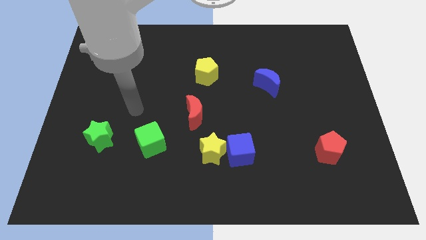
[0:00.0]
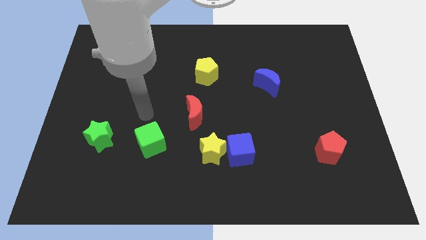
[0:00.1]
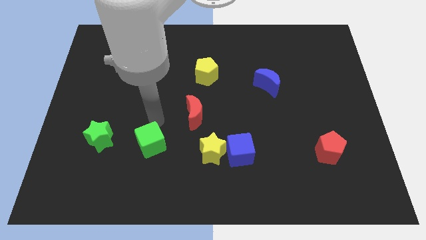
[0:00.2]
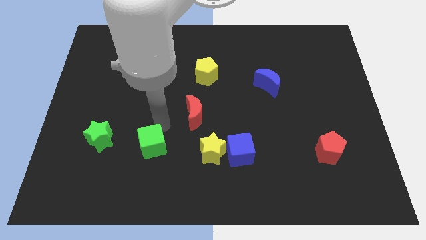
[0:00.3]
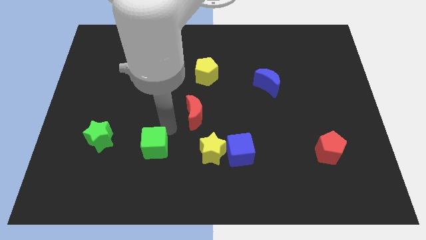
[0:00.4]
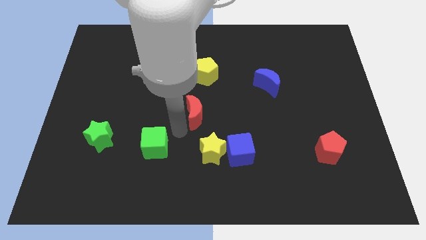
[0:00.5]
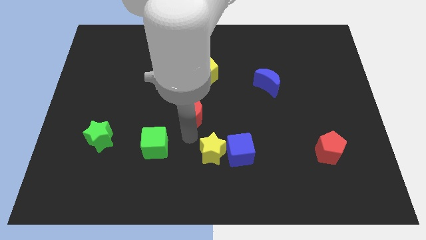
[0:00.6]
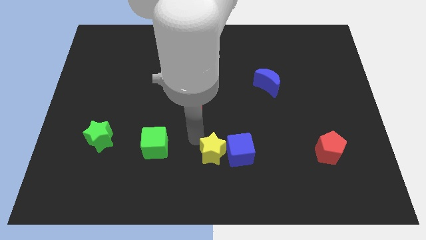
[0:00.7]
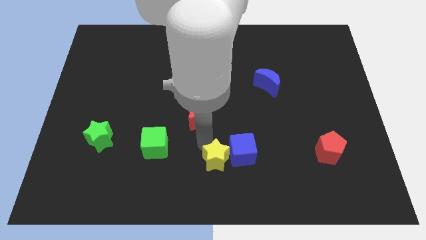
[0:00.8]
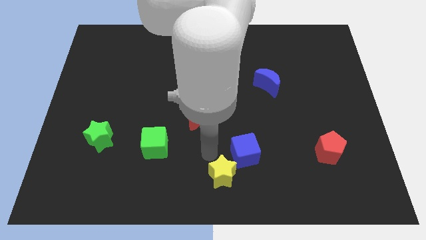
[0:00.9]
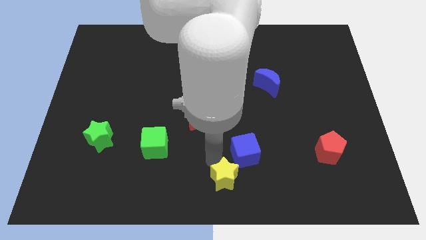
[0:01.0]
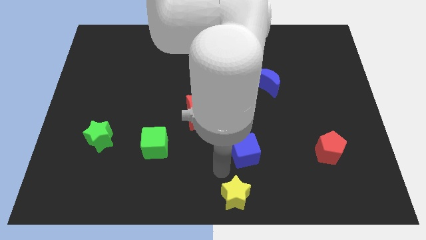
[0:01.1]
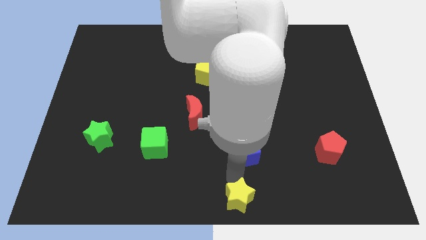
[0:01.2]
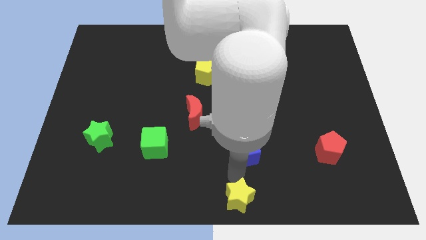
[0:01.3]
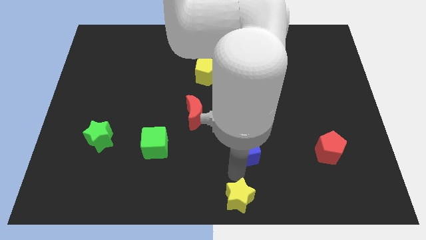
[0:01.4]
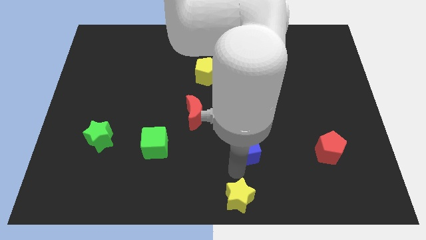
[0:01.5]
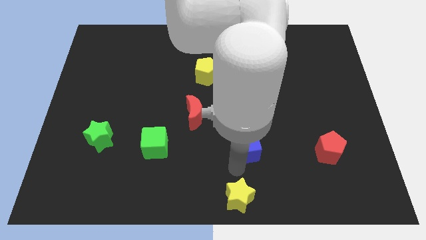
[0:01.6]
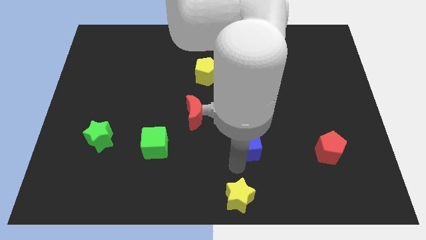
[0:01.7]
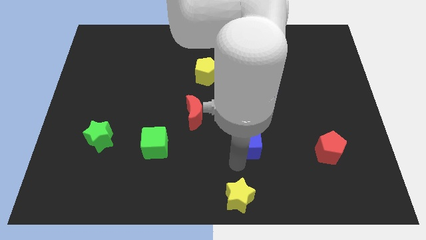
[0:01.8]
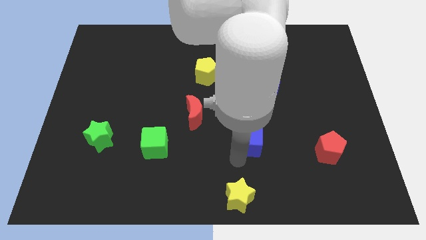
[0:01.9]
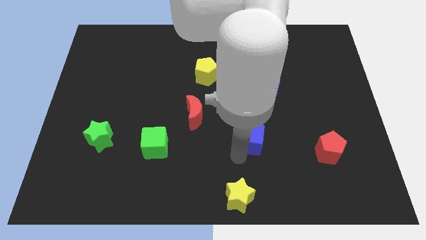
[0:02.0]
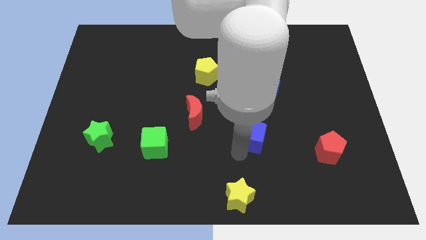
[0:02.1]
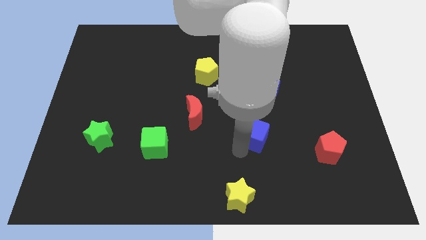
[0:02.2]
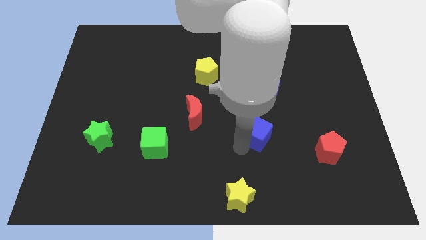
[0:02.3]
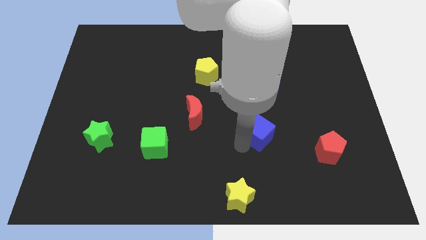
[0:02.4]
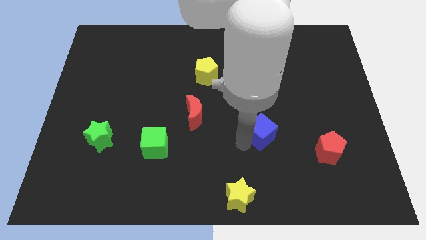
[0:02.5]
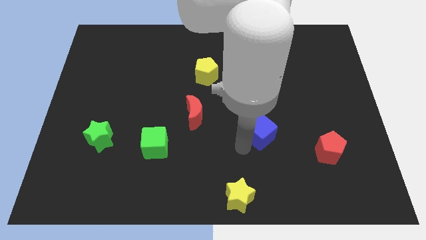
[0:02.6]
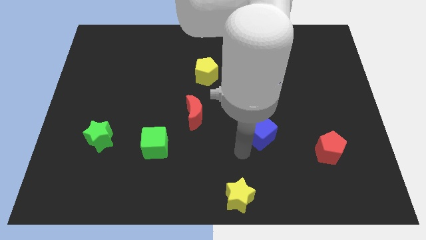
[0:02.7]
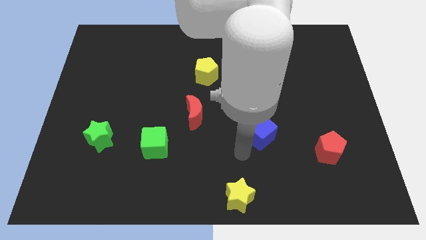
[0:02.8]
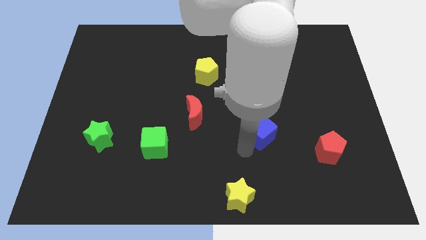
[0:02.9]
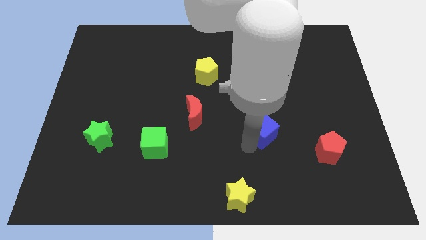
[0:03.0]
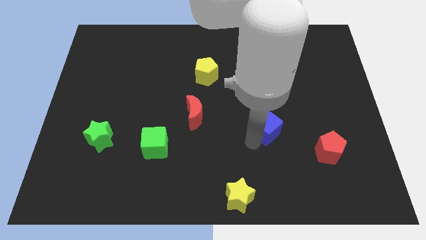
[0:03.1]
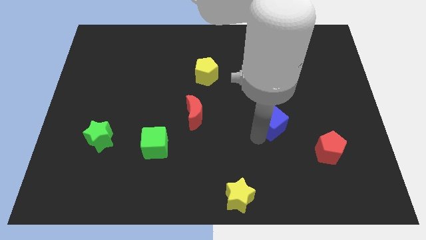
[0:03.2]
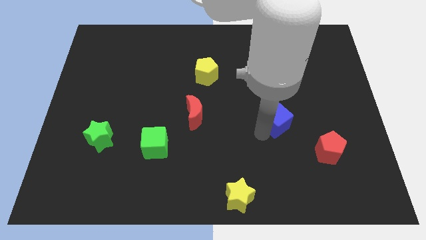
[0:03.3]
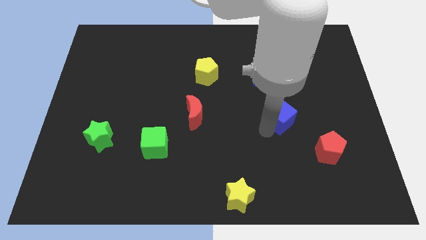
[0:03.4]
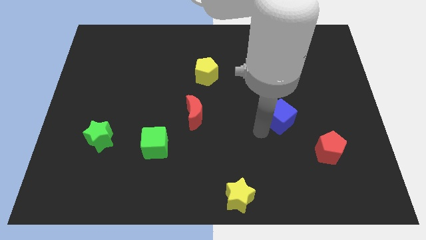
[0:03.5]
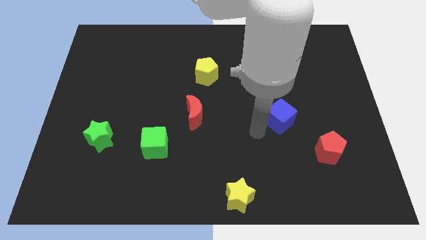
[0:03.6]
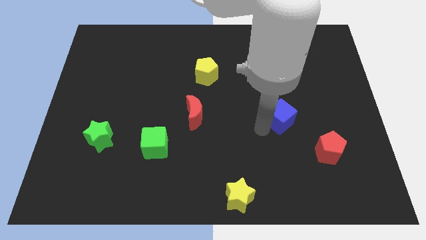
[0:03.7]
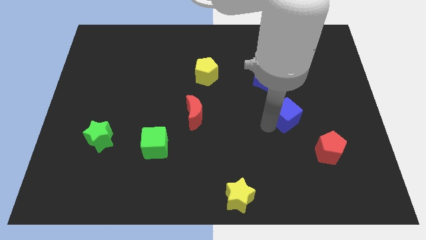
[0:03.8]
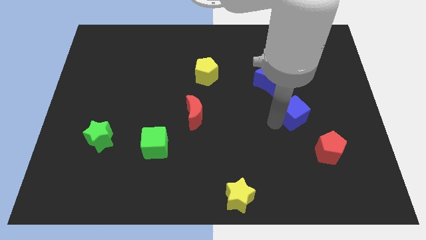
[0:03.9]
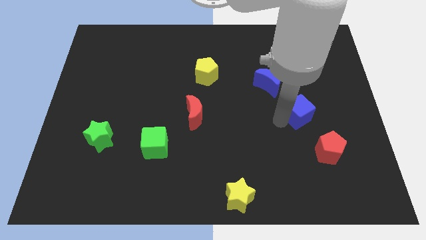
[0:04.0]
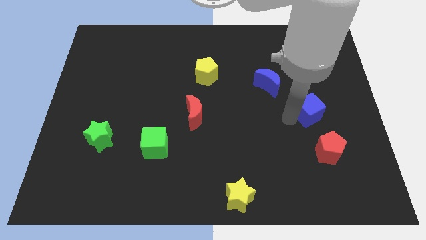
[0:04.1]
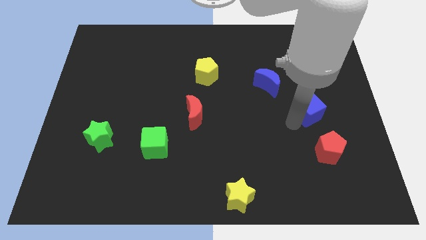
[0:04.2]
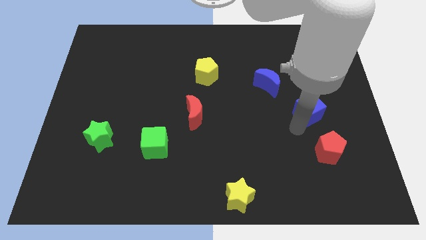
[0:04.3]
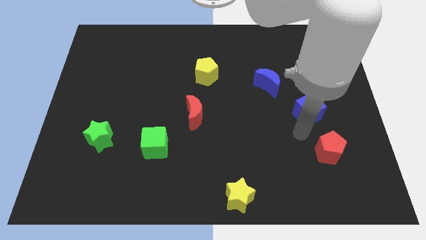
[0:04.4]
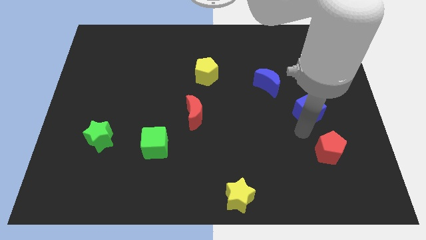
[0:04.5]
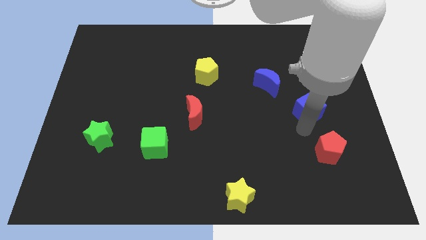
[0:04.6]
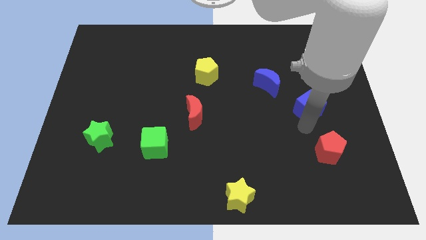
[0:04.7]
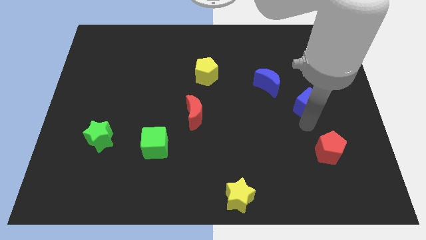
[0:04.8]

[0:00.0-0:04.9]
push the blue cube diagonally upwards and right

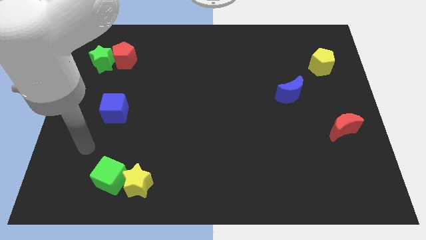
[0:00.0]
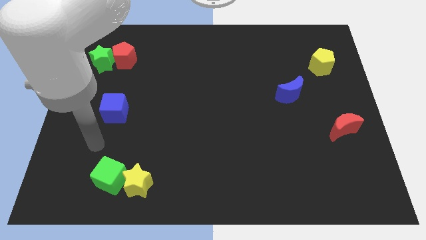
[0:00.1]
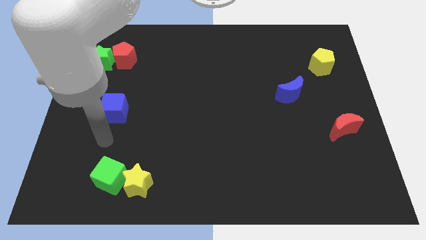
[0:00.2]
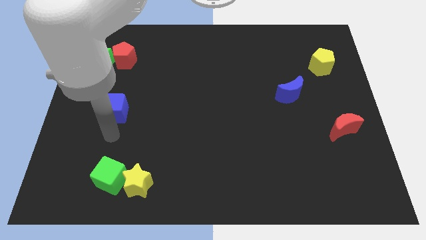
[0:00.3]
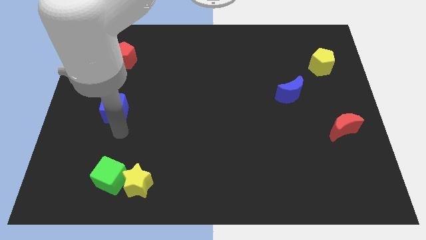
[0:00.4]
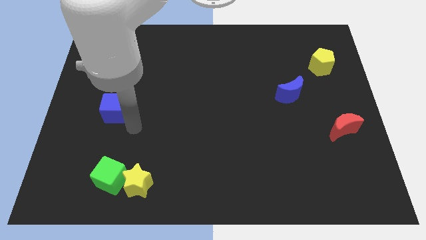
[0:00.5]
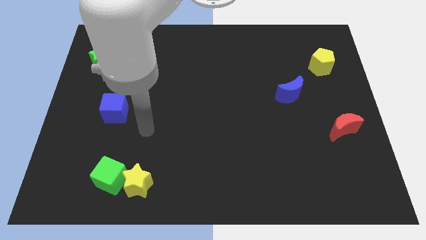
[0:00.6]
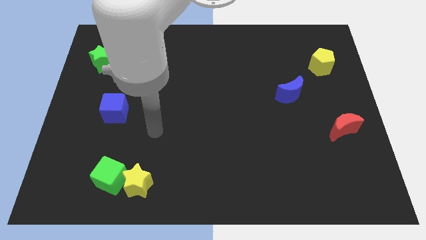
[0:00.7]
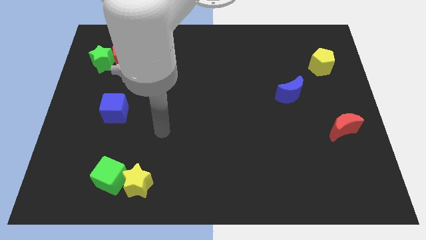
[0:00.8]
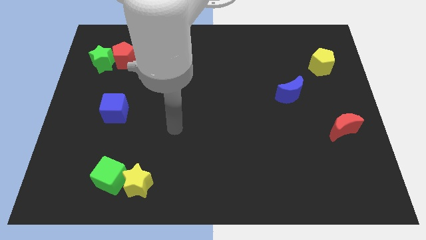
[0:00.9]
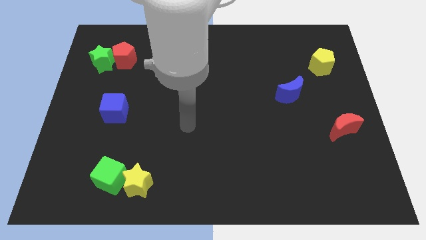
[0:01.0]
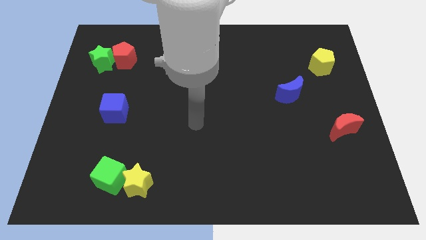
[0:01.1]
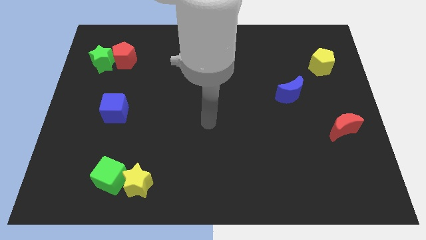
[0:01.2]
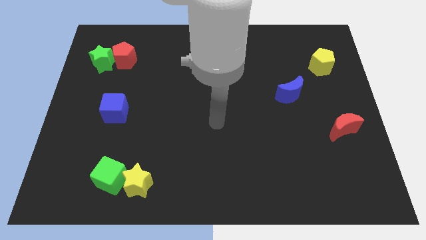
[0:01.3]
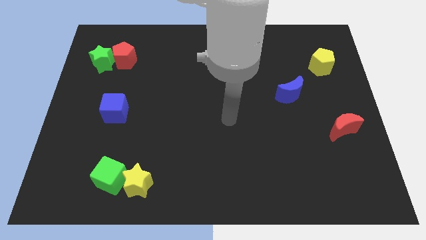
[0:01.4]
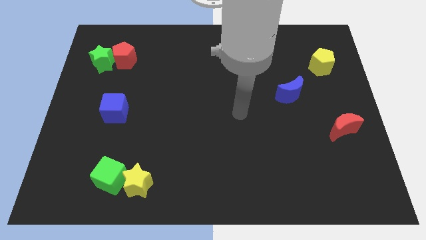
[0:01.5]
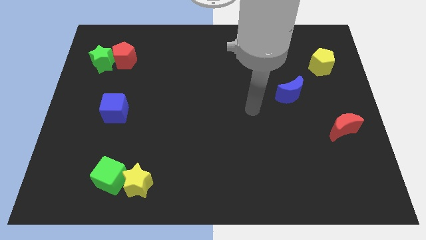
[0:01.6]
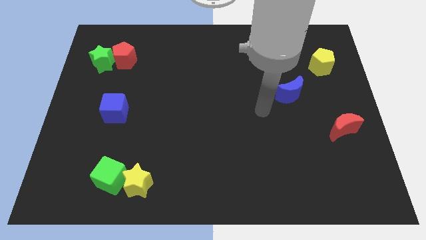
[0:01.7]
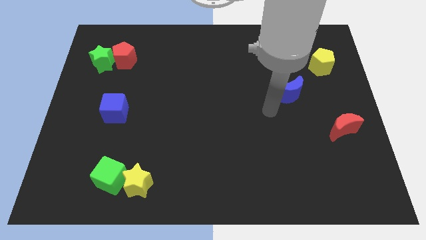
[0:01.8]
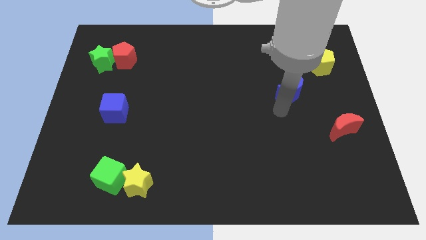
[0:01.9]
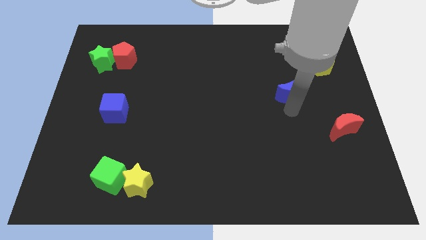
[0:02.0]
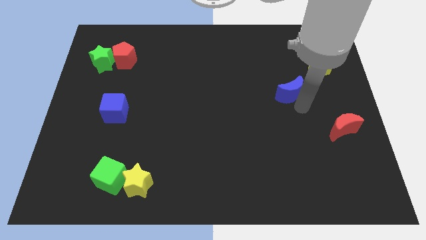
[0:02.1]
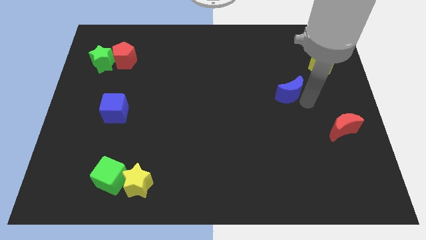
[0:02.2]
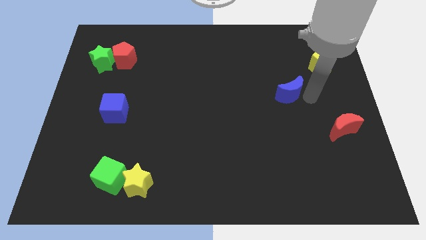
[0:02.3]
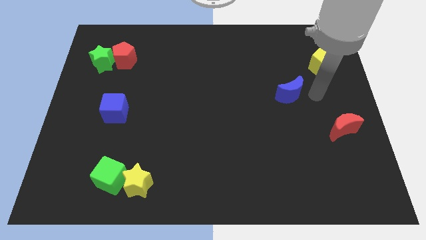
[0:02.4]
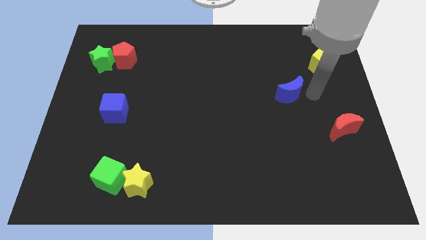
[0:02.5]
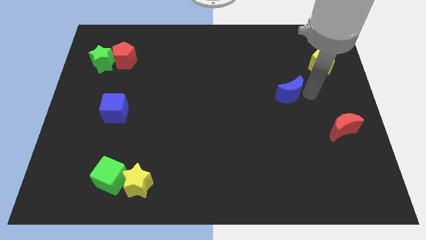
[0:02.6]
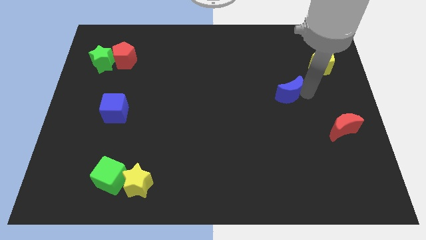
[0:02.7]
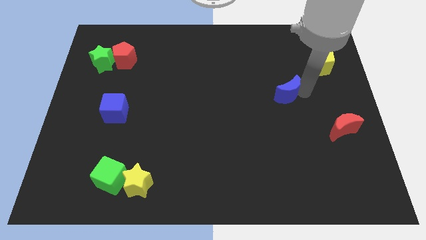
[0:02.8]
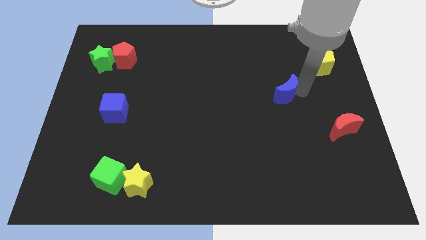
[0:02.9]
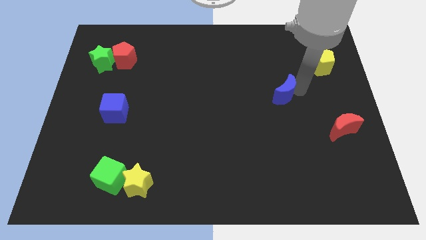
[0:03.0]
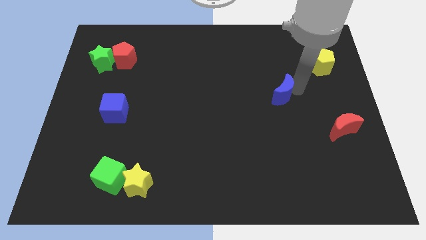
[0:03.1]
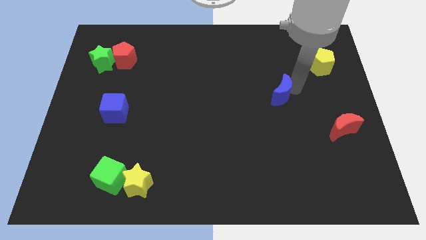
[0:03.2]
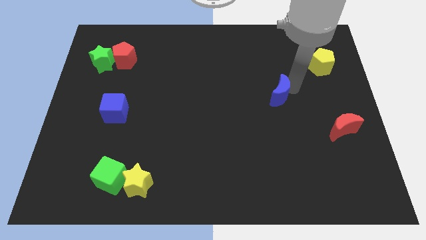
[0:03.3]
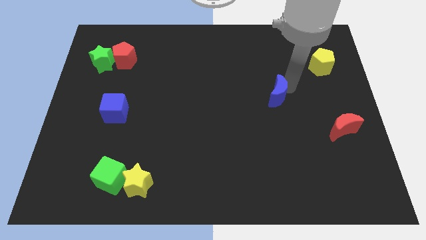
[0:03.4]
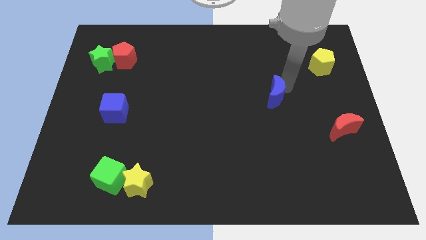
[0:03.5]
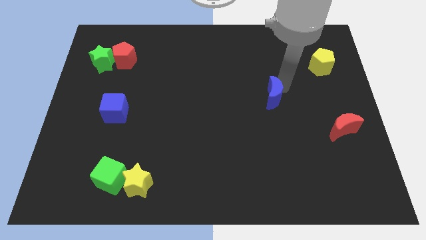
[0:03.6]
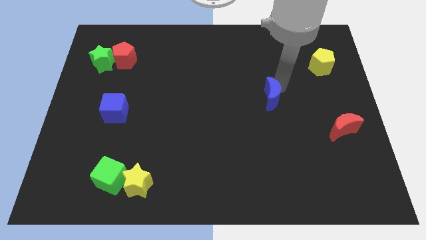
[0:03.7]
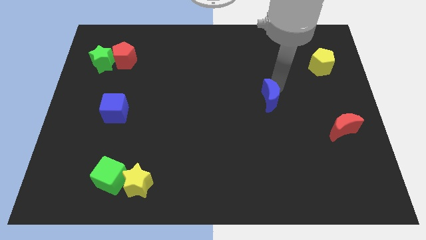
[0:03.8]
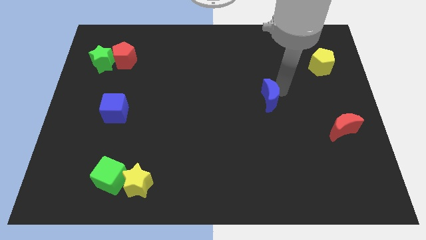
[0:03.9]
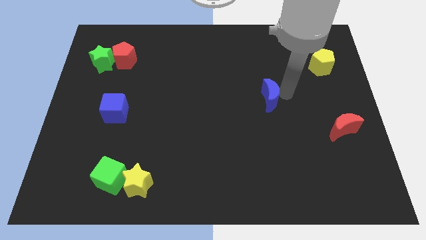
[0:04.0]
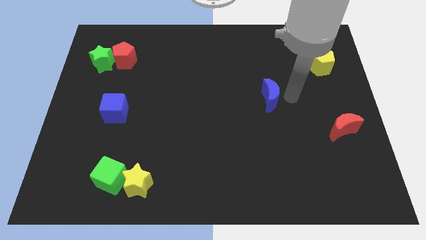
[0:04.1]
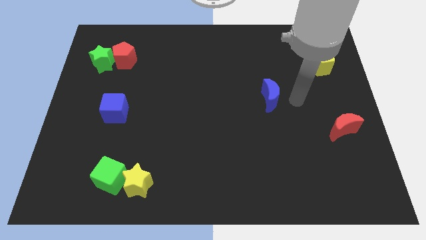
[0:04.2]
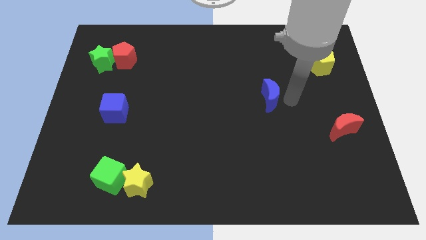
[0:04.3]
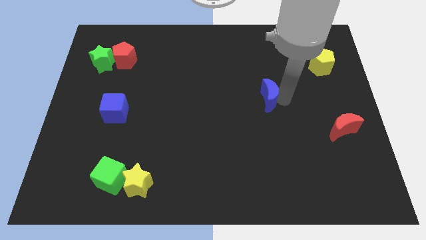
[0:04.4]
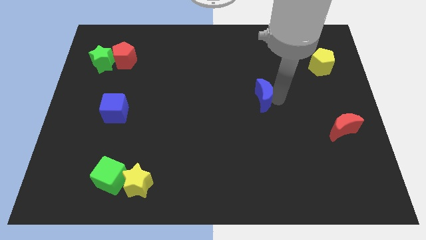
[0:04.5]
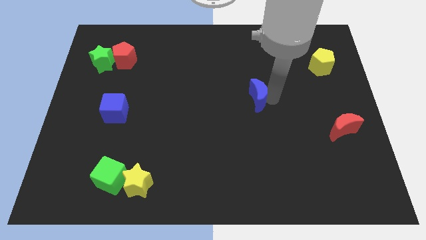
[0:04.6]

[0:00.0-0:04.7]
slide the blue moon left somewhat
